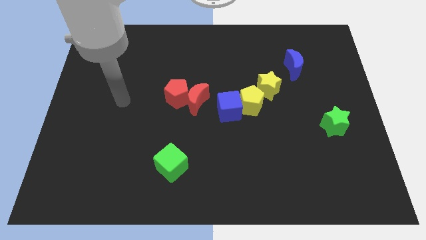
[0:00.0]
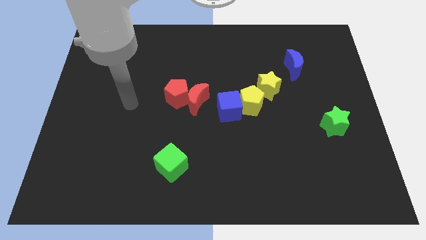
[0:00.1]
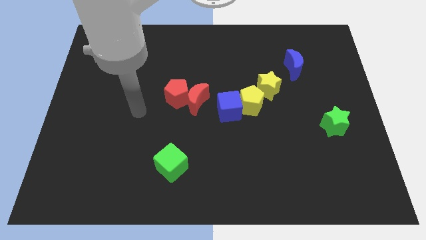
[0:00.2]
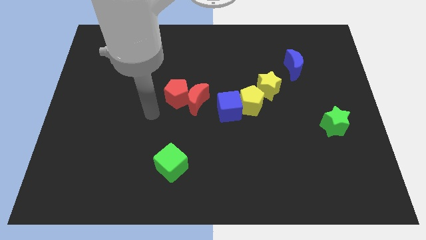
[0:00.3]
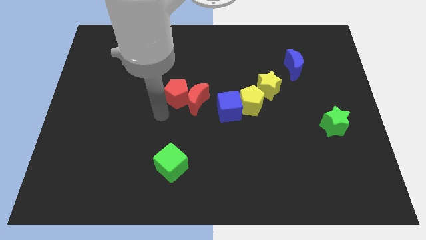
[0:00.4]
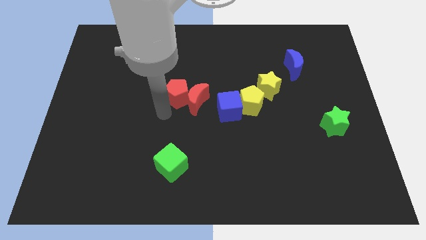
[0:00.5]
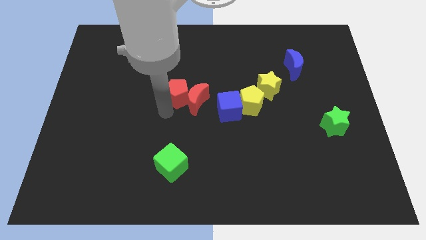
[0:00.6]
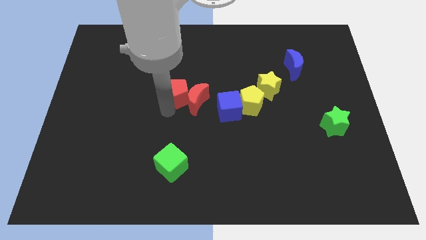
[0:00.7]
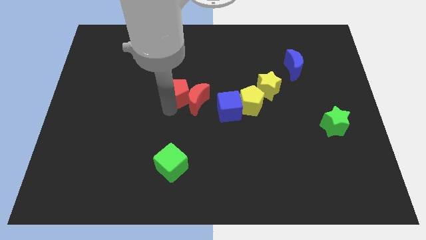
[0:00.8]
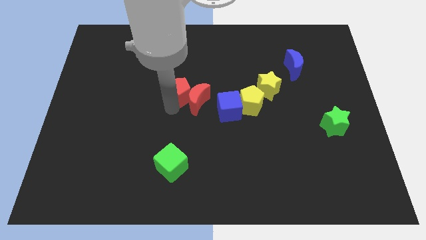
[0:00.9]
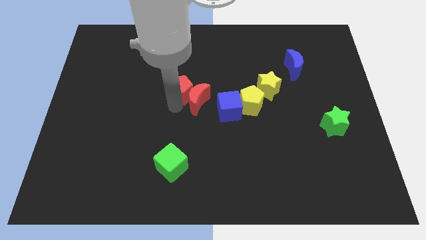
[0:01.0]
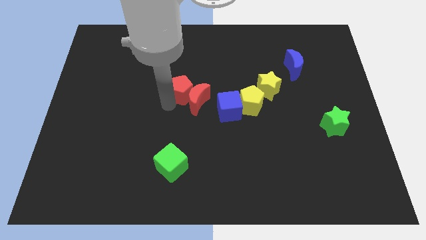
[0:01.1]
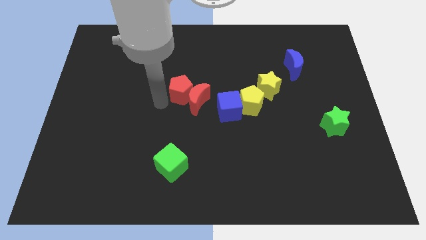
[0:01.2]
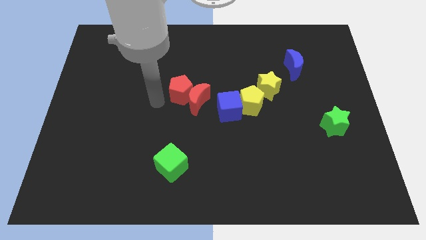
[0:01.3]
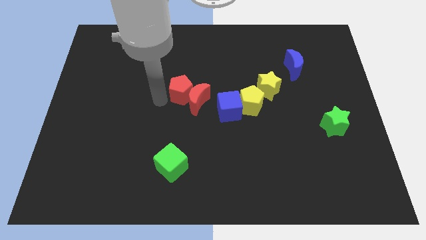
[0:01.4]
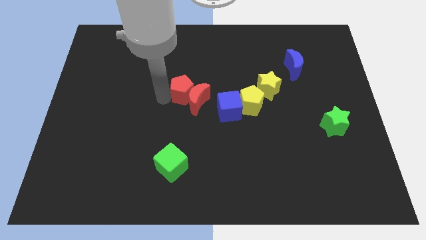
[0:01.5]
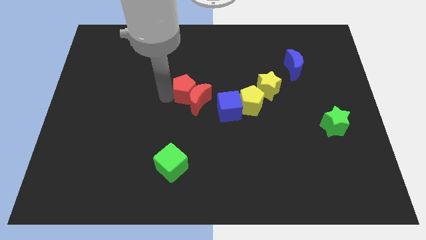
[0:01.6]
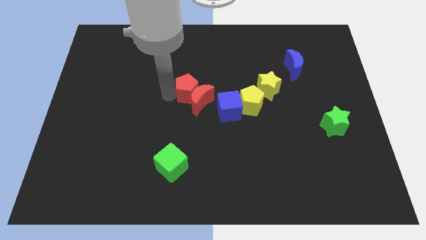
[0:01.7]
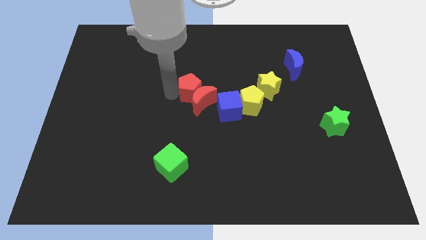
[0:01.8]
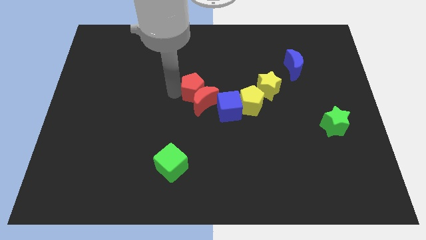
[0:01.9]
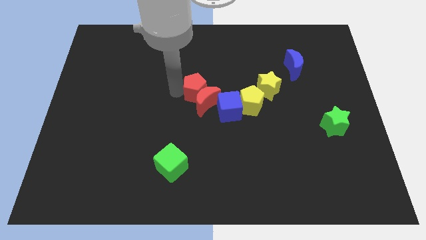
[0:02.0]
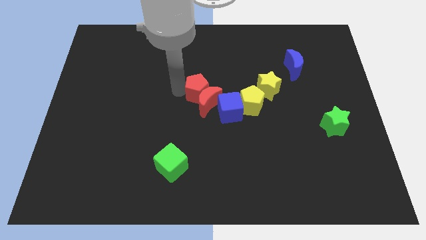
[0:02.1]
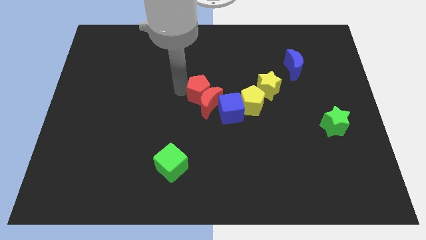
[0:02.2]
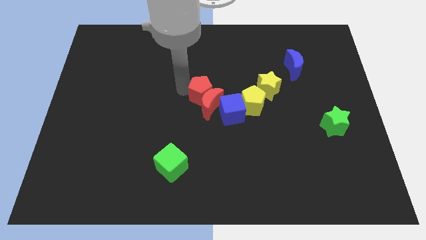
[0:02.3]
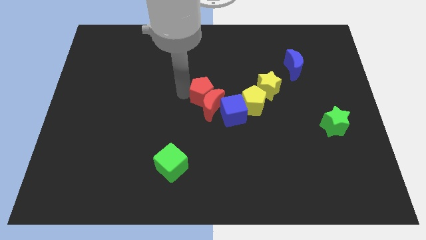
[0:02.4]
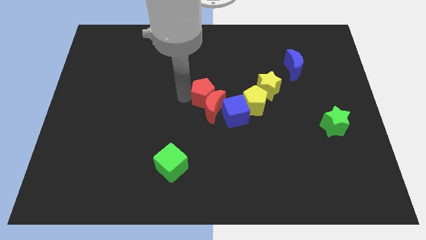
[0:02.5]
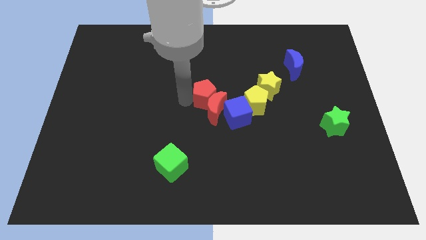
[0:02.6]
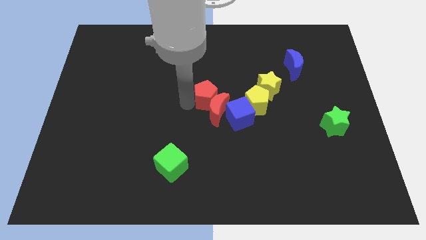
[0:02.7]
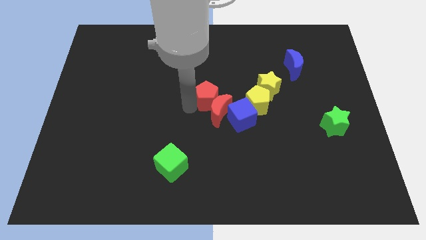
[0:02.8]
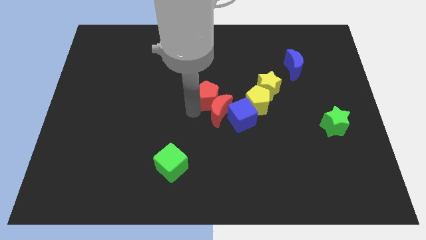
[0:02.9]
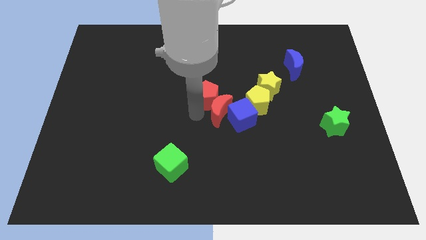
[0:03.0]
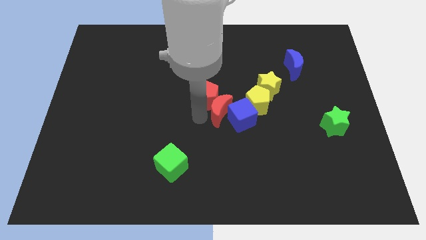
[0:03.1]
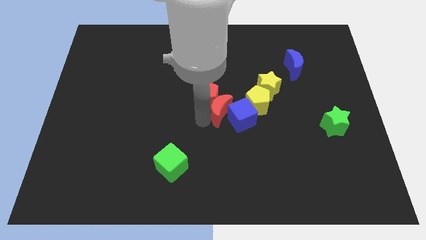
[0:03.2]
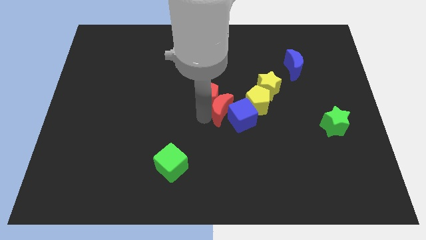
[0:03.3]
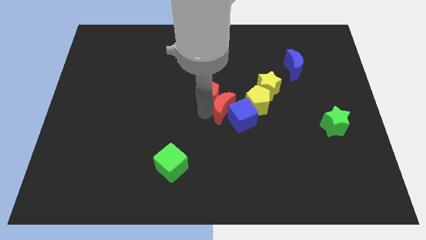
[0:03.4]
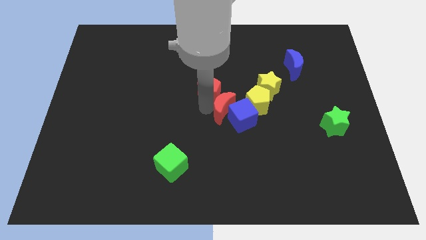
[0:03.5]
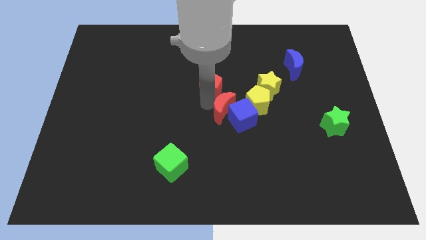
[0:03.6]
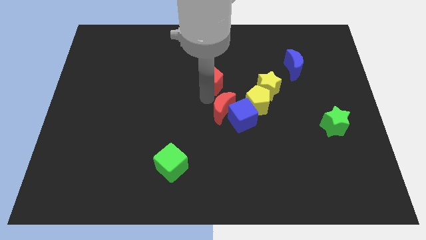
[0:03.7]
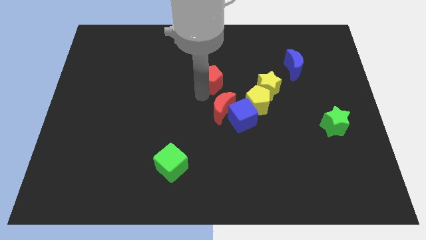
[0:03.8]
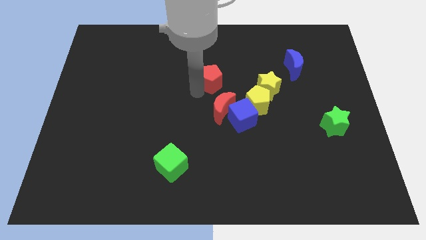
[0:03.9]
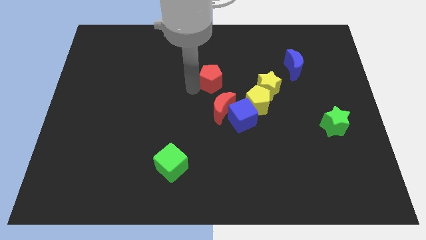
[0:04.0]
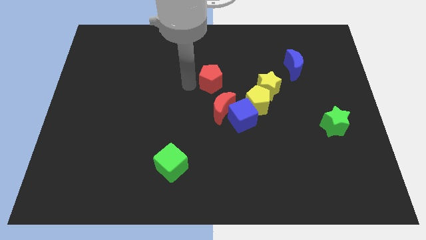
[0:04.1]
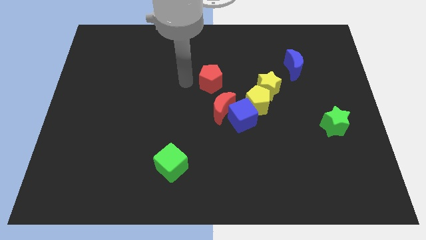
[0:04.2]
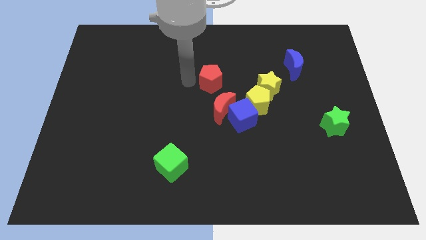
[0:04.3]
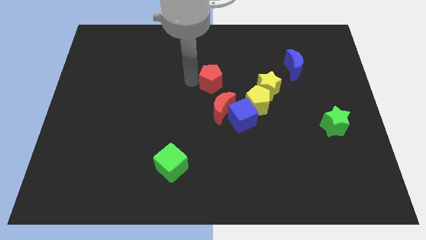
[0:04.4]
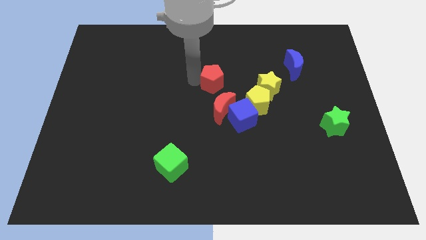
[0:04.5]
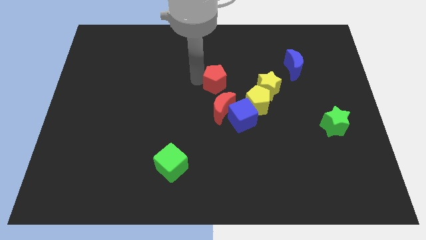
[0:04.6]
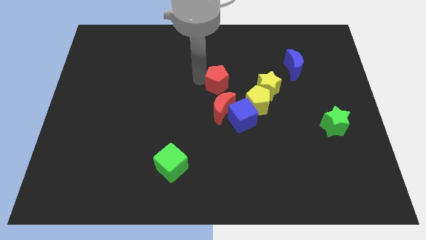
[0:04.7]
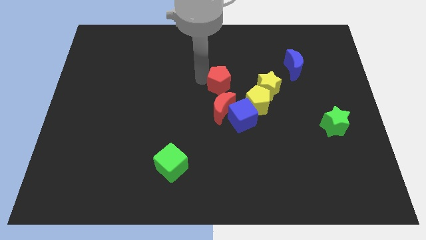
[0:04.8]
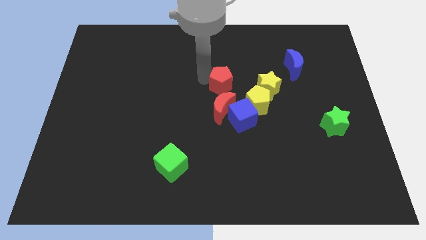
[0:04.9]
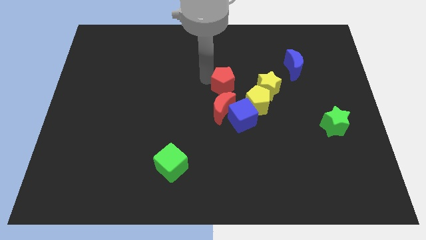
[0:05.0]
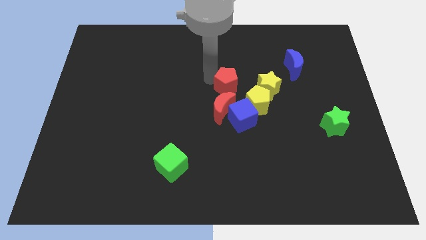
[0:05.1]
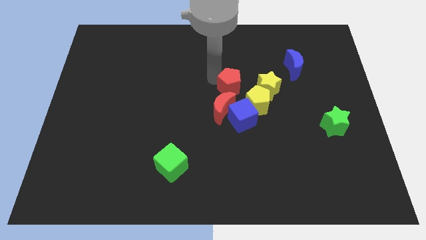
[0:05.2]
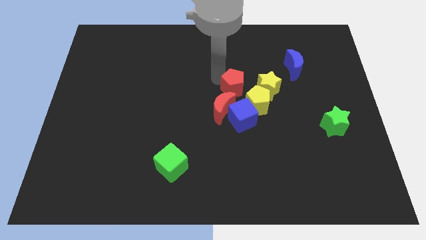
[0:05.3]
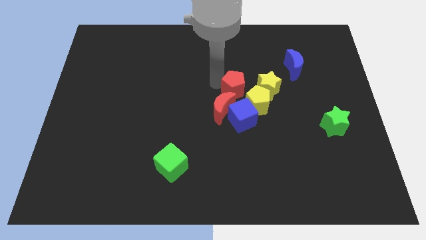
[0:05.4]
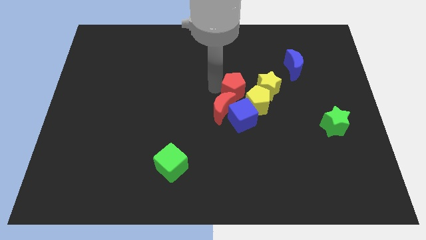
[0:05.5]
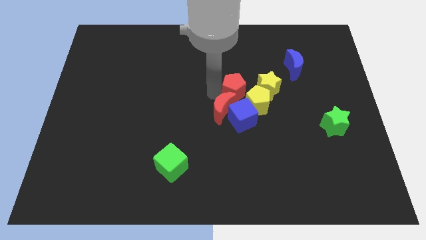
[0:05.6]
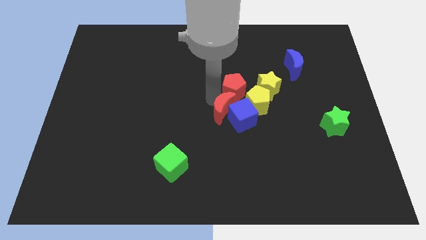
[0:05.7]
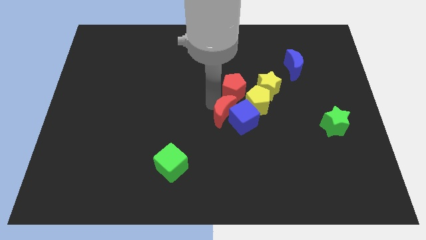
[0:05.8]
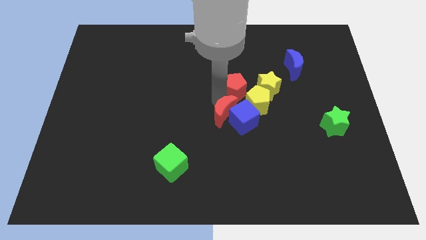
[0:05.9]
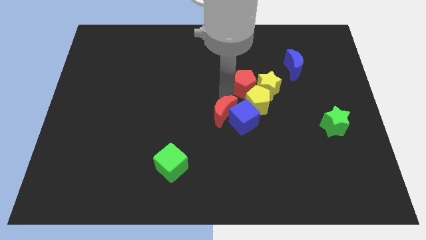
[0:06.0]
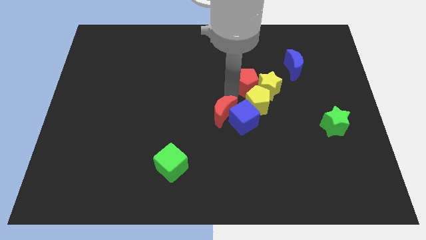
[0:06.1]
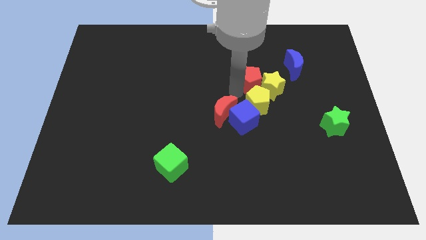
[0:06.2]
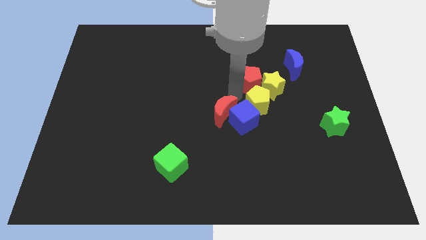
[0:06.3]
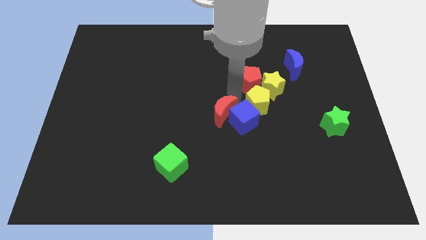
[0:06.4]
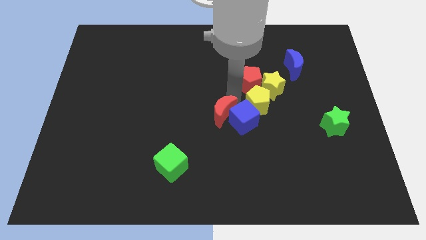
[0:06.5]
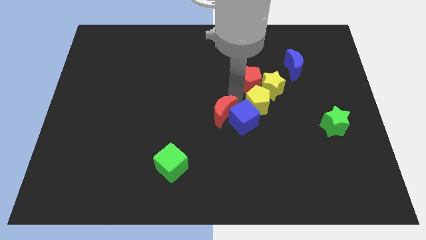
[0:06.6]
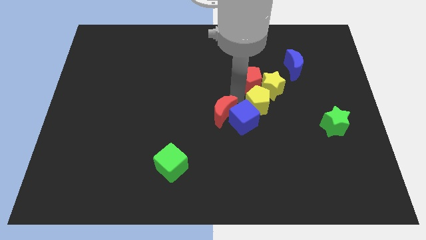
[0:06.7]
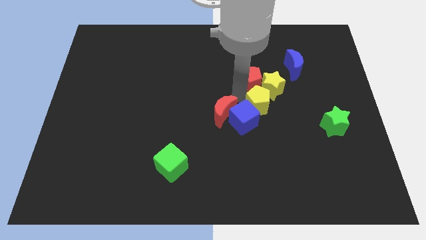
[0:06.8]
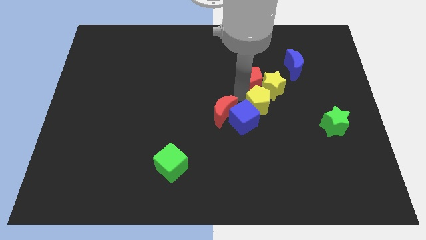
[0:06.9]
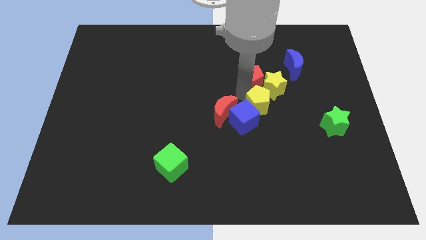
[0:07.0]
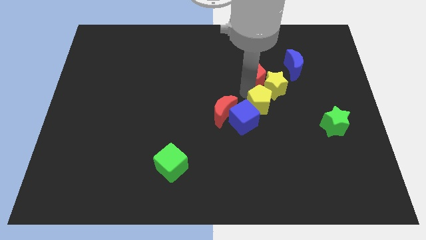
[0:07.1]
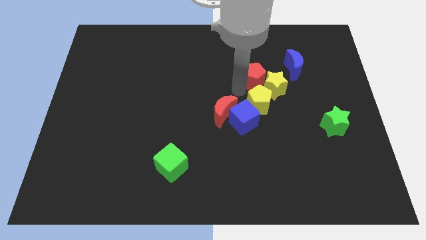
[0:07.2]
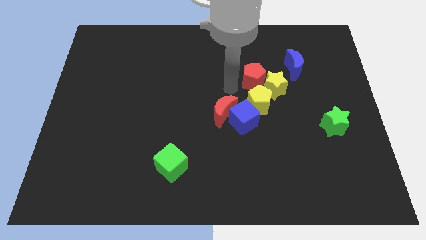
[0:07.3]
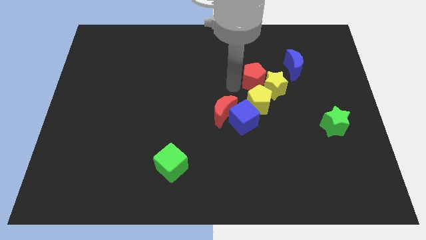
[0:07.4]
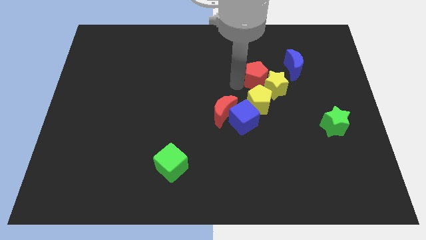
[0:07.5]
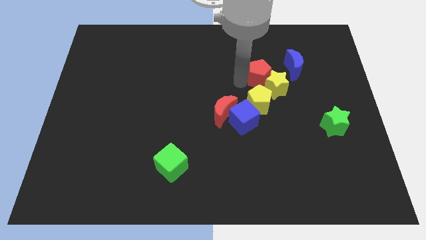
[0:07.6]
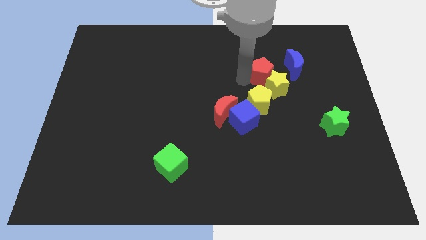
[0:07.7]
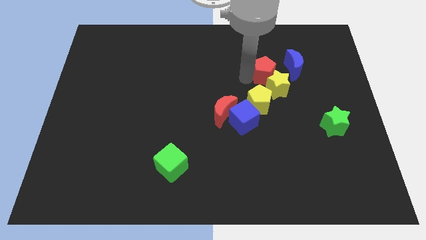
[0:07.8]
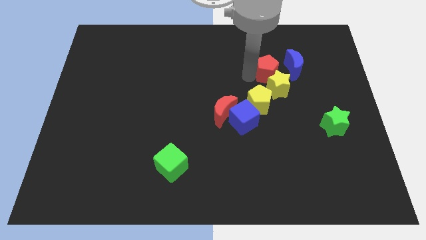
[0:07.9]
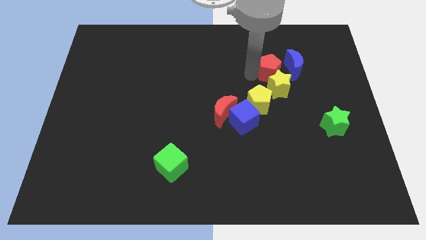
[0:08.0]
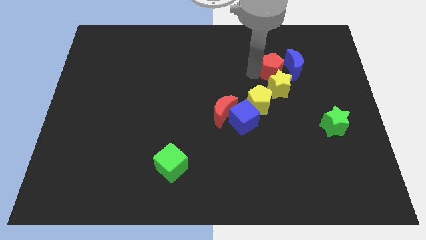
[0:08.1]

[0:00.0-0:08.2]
push the red pentagon close to the blue moon
